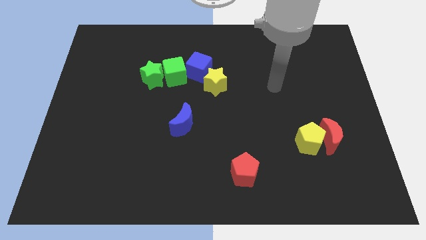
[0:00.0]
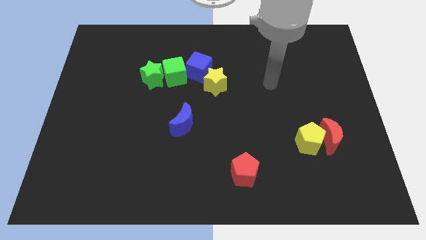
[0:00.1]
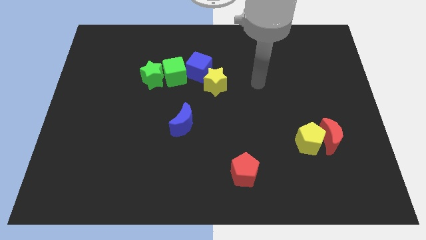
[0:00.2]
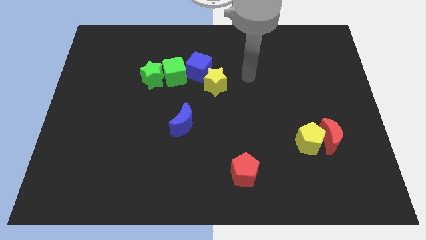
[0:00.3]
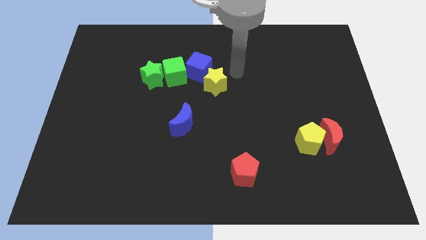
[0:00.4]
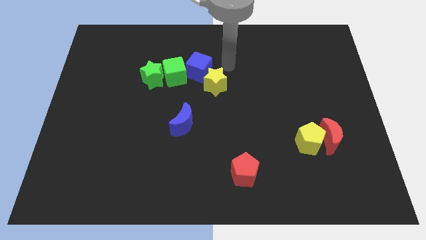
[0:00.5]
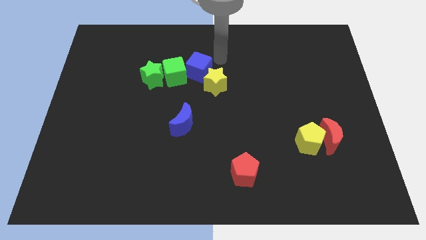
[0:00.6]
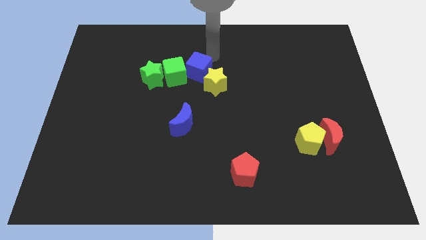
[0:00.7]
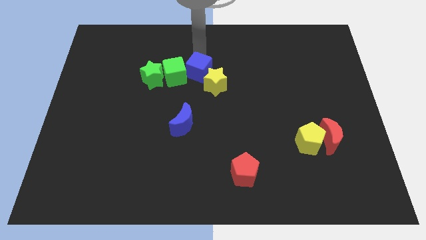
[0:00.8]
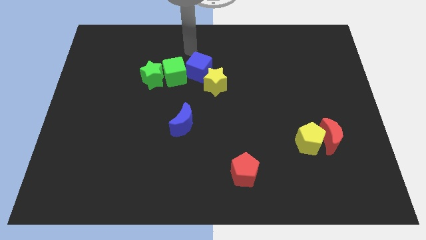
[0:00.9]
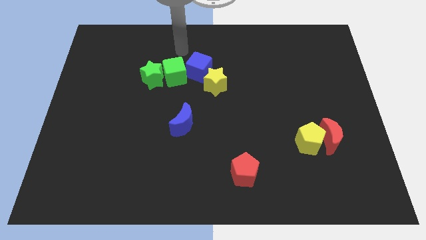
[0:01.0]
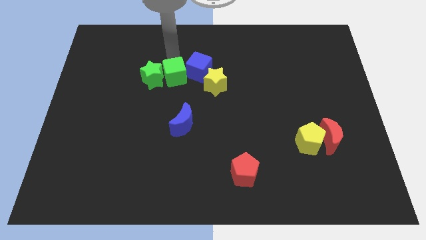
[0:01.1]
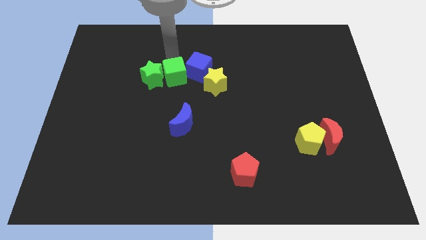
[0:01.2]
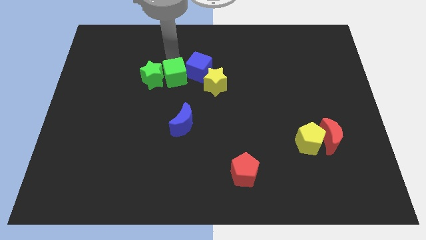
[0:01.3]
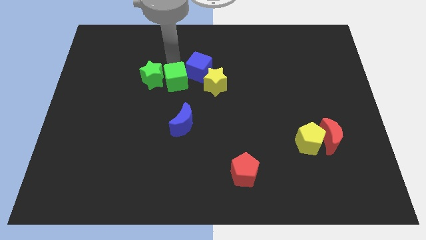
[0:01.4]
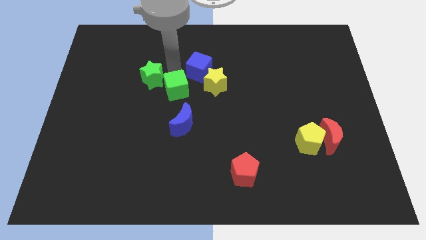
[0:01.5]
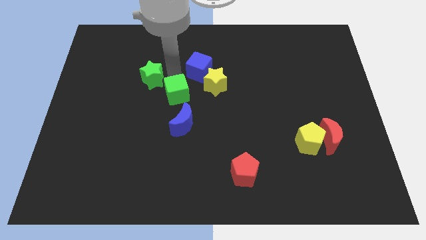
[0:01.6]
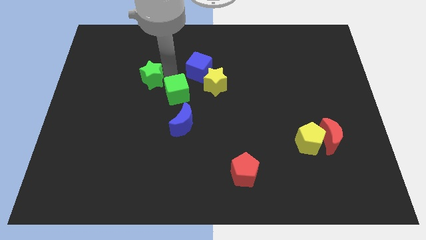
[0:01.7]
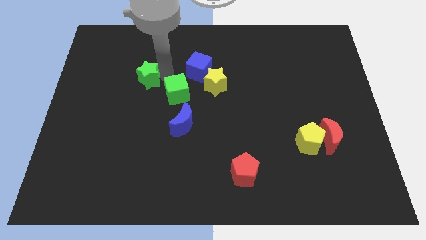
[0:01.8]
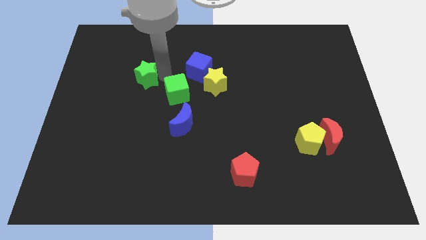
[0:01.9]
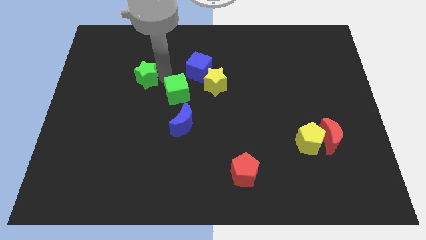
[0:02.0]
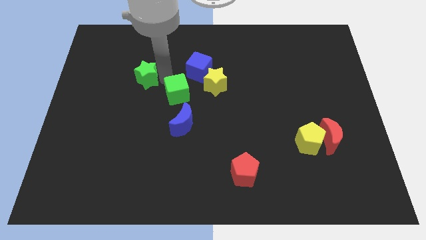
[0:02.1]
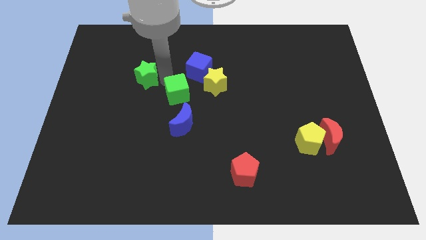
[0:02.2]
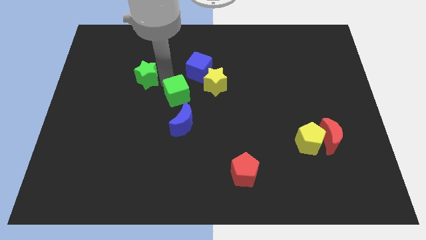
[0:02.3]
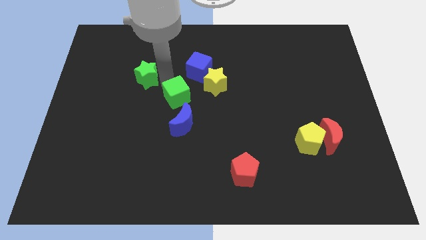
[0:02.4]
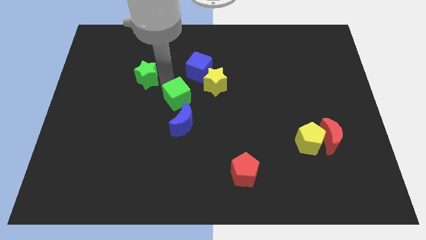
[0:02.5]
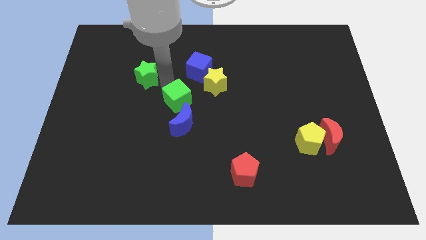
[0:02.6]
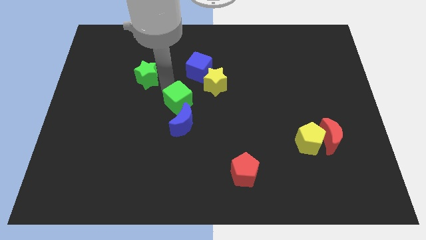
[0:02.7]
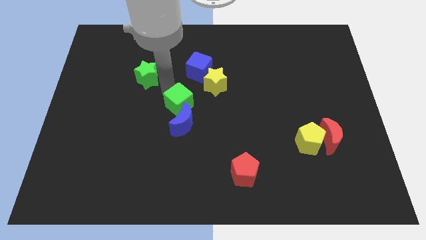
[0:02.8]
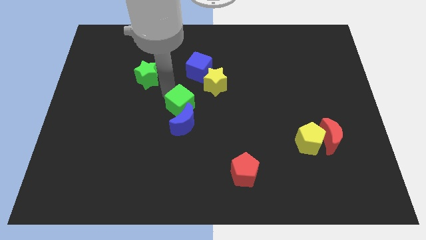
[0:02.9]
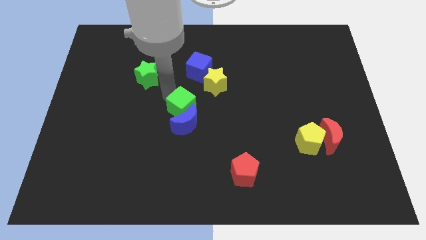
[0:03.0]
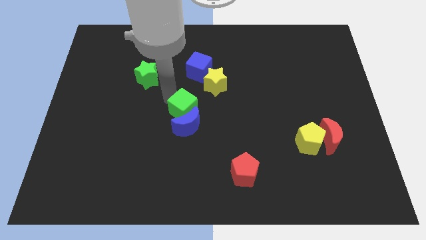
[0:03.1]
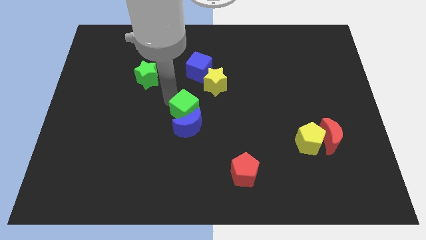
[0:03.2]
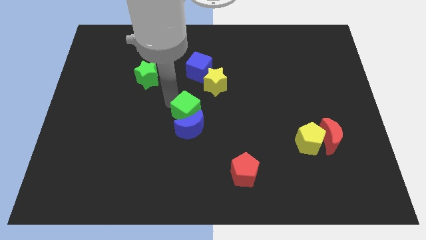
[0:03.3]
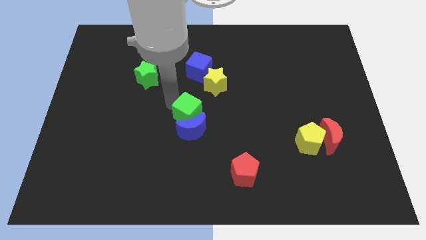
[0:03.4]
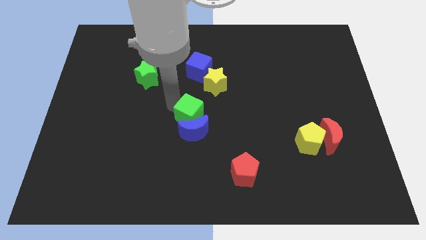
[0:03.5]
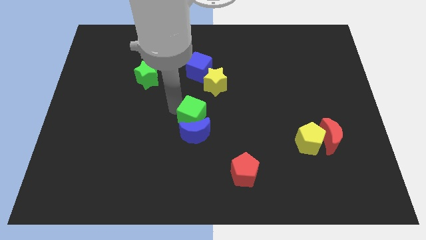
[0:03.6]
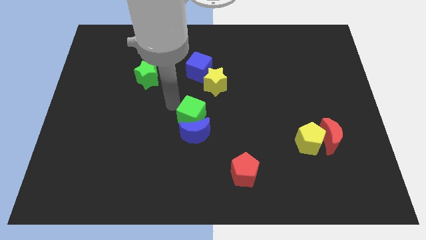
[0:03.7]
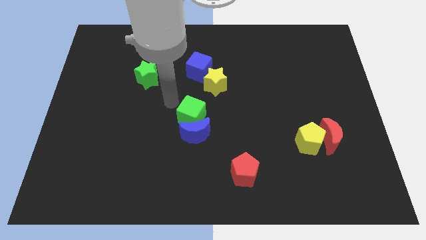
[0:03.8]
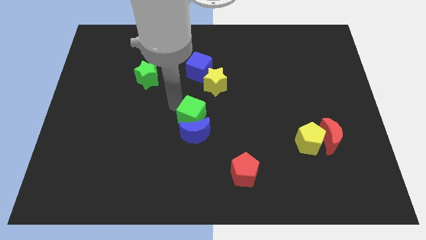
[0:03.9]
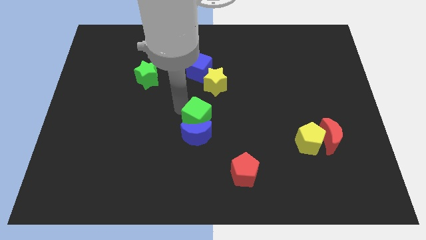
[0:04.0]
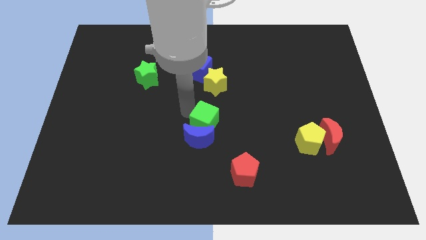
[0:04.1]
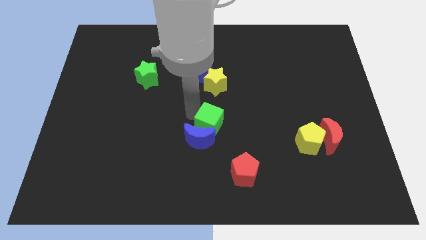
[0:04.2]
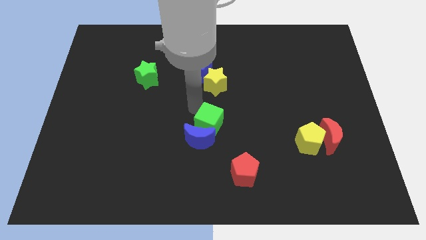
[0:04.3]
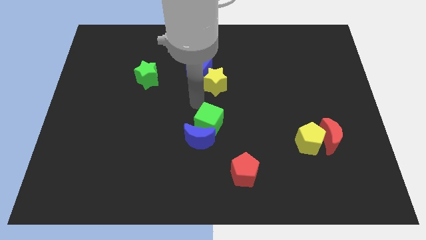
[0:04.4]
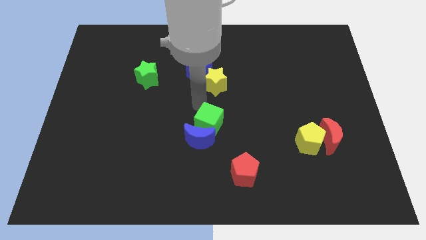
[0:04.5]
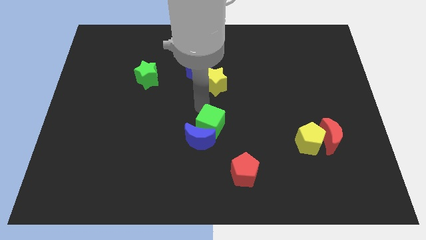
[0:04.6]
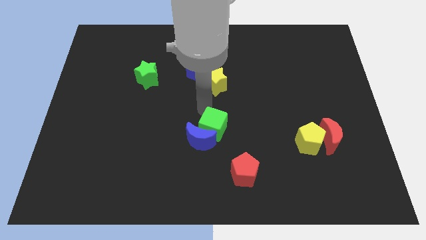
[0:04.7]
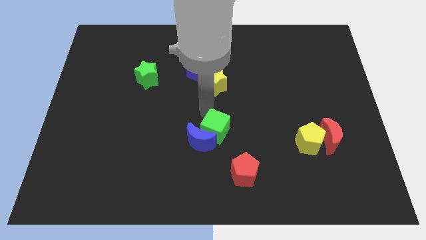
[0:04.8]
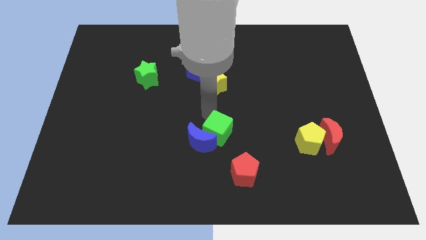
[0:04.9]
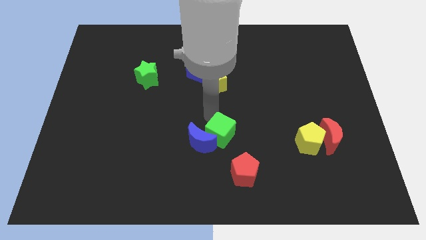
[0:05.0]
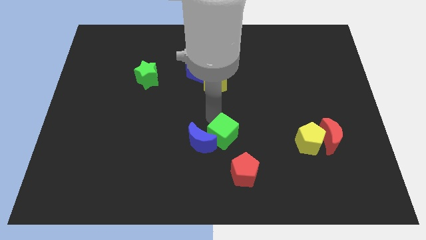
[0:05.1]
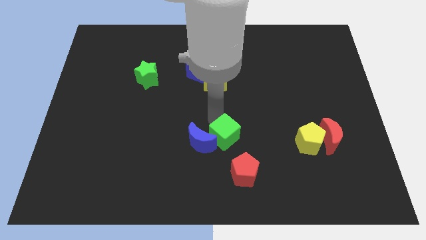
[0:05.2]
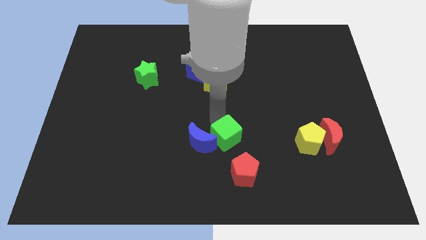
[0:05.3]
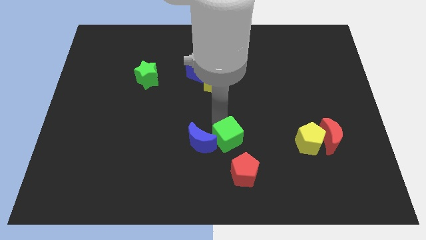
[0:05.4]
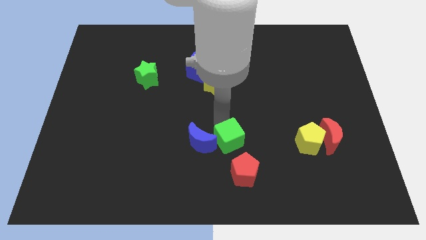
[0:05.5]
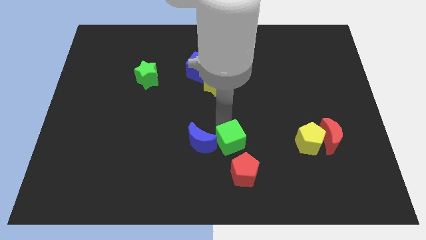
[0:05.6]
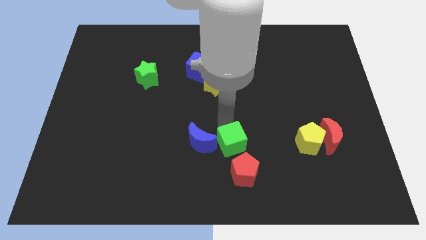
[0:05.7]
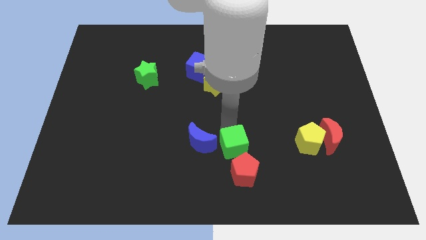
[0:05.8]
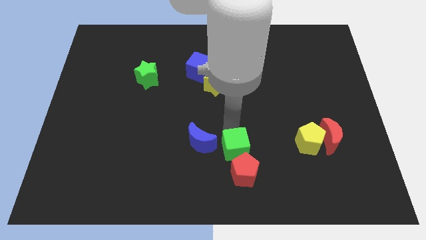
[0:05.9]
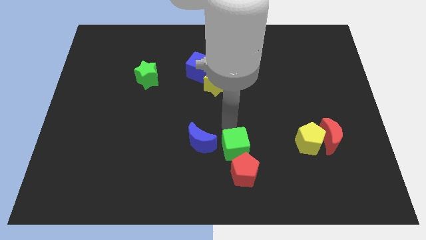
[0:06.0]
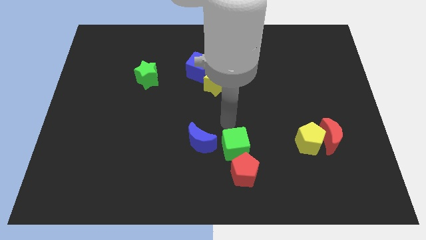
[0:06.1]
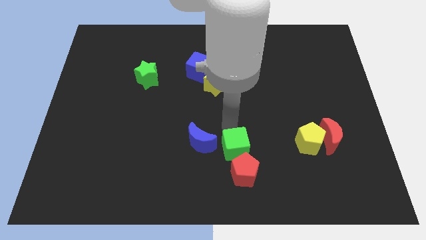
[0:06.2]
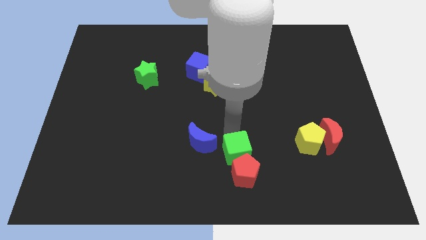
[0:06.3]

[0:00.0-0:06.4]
put the green cube next to the red pentagon
